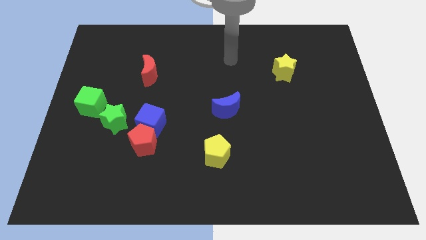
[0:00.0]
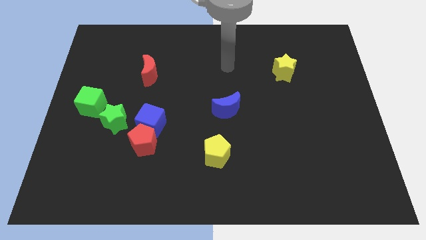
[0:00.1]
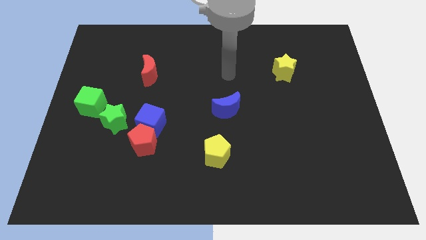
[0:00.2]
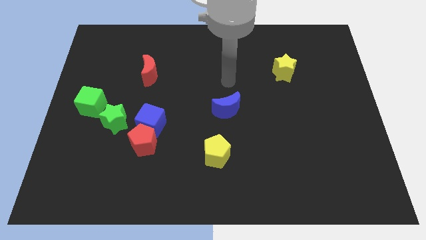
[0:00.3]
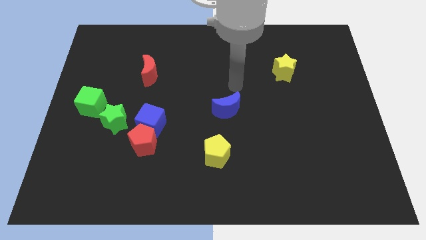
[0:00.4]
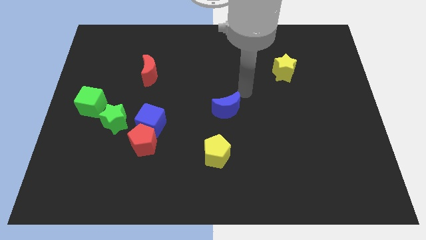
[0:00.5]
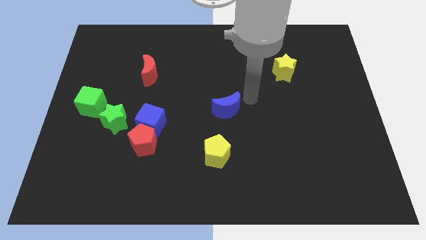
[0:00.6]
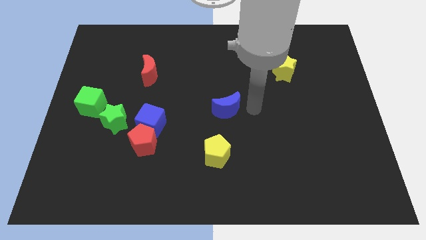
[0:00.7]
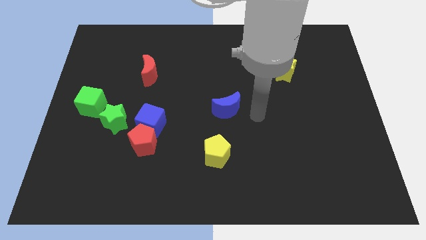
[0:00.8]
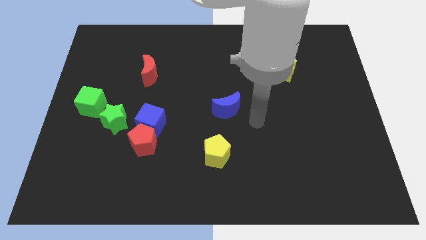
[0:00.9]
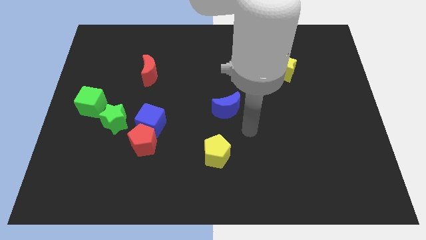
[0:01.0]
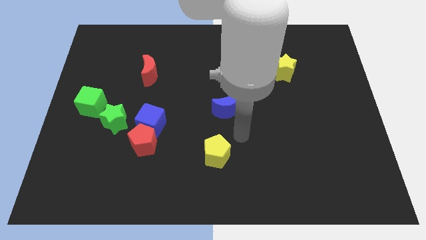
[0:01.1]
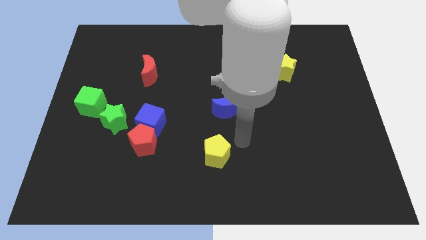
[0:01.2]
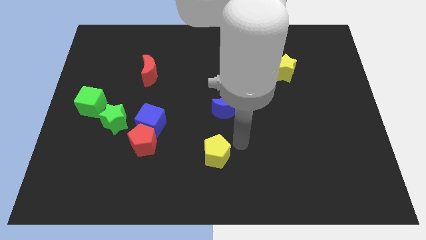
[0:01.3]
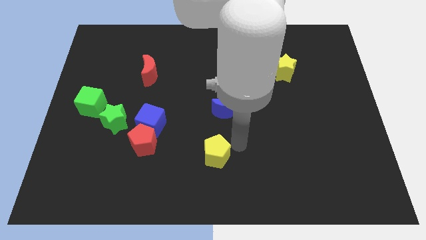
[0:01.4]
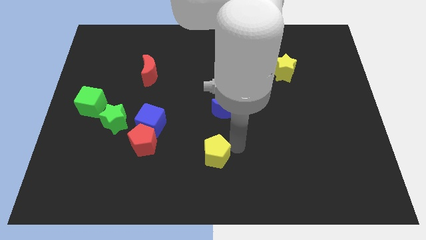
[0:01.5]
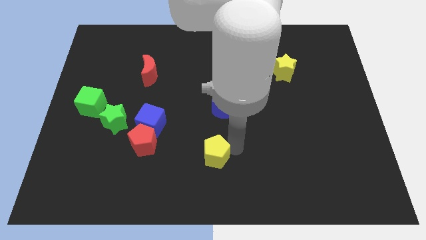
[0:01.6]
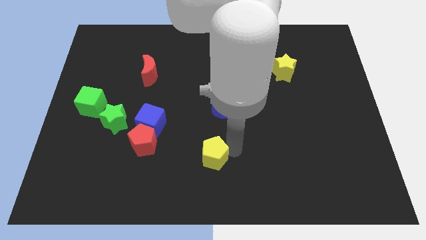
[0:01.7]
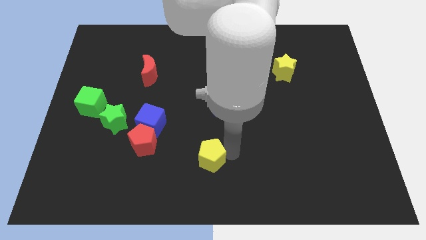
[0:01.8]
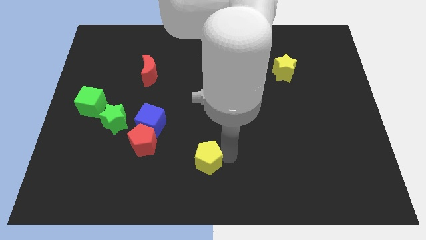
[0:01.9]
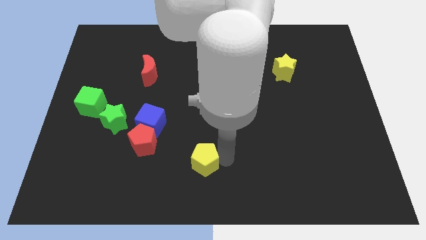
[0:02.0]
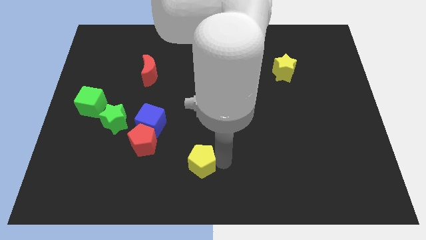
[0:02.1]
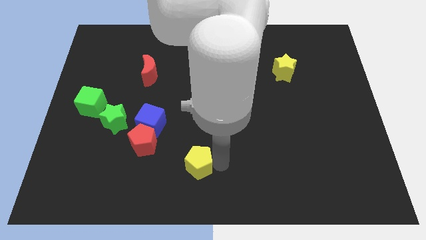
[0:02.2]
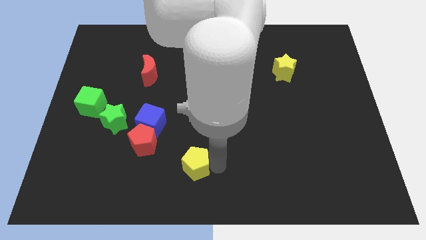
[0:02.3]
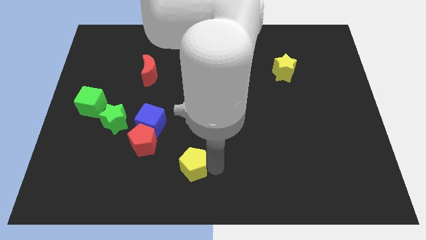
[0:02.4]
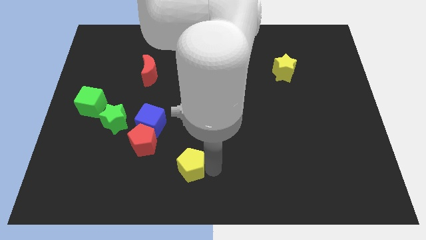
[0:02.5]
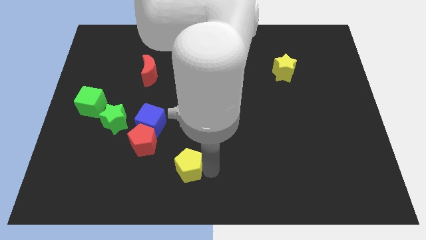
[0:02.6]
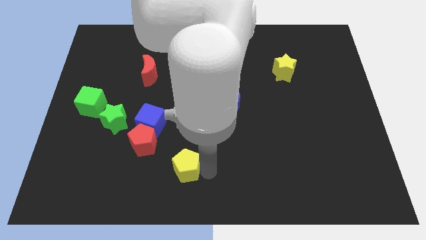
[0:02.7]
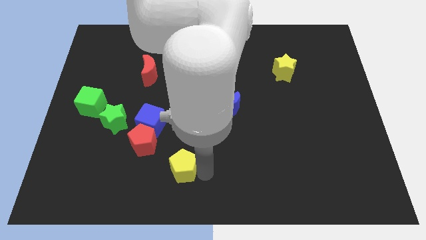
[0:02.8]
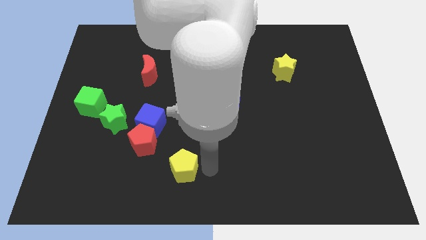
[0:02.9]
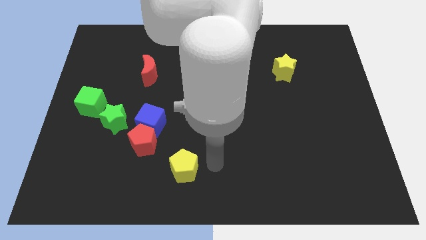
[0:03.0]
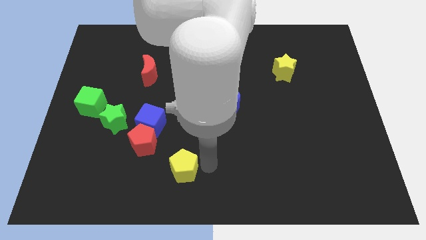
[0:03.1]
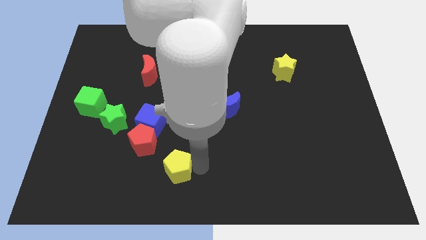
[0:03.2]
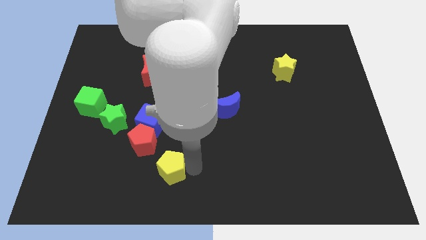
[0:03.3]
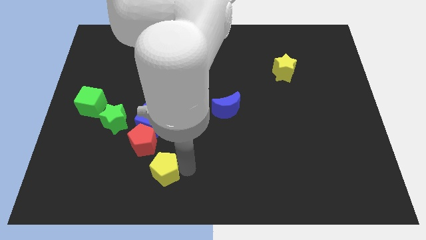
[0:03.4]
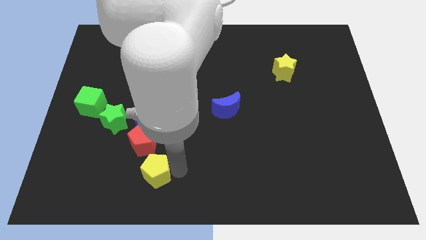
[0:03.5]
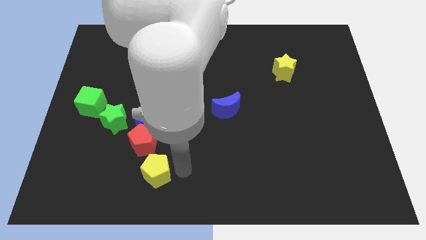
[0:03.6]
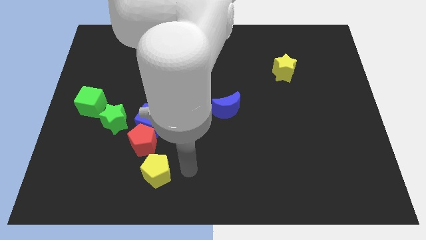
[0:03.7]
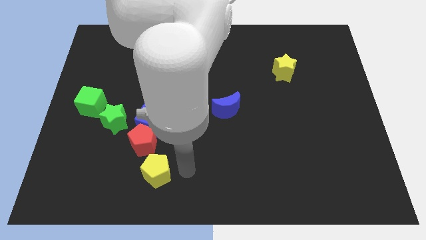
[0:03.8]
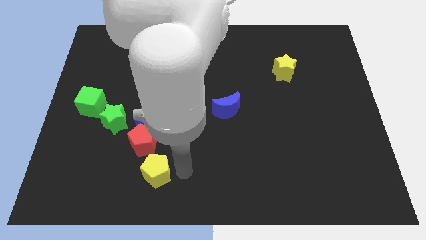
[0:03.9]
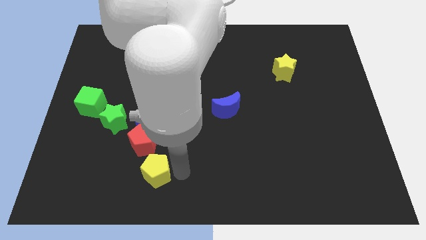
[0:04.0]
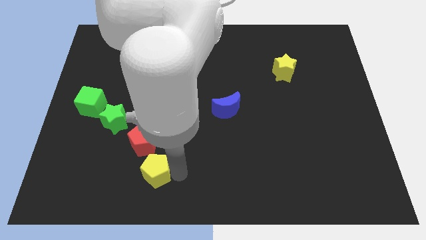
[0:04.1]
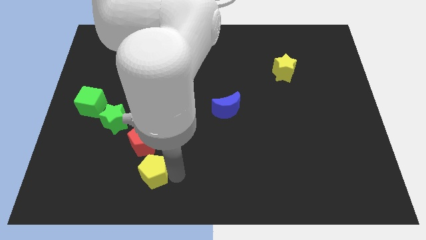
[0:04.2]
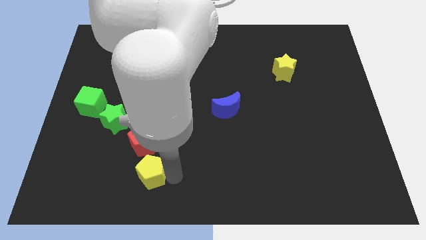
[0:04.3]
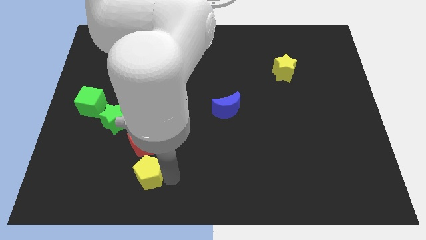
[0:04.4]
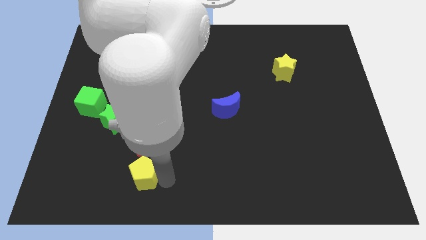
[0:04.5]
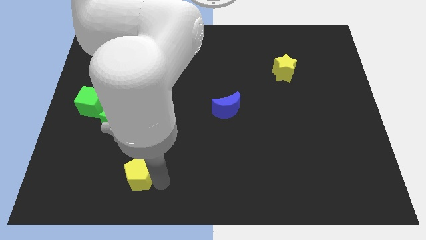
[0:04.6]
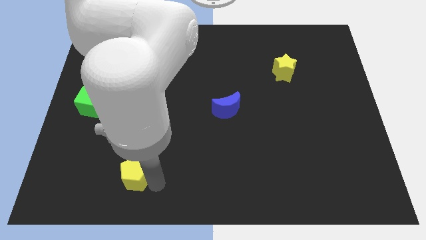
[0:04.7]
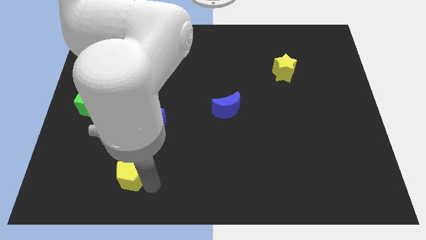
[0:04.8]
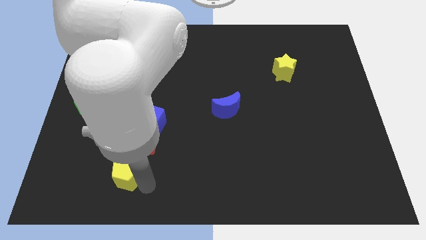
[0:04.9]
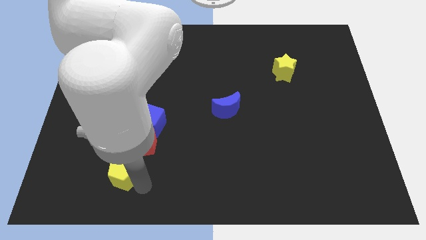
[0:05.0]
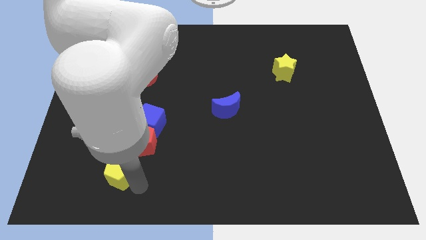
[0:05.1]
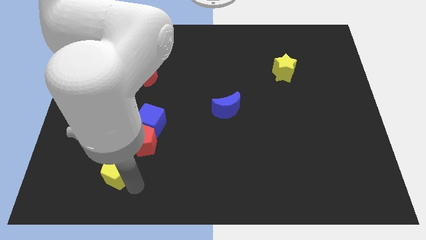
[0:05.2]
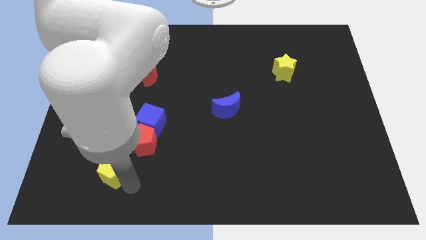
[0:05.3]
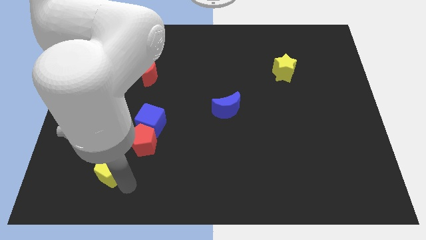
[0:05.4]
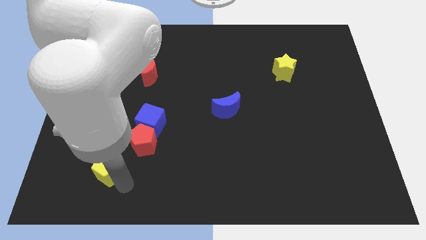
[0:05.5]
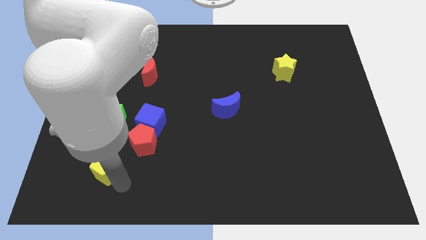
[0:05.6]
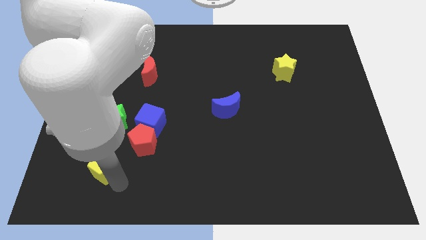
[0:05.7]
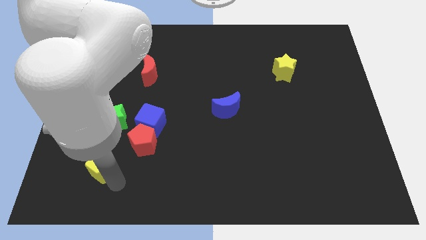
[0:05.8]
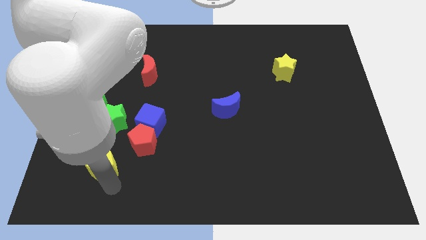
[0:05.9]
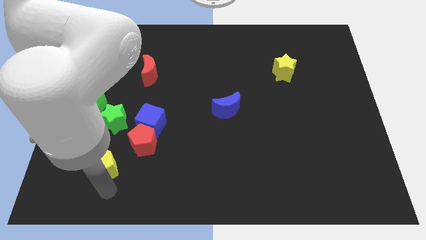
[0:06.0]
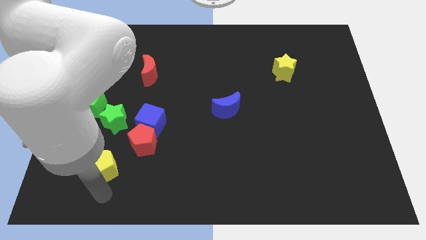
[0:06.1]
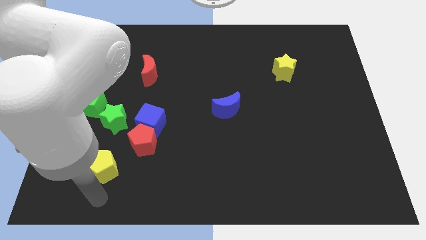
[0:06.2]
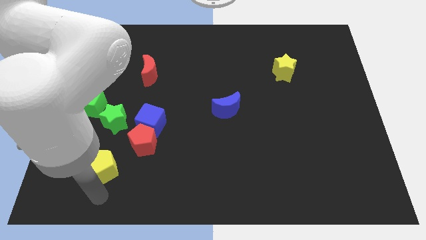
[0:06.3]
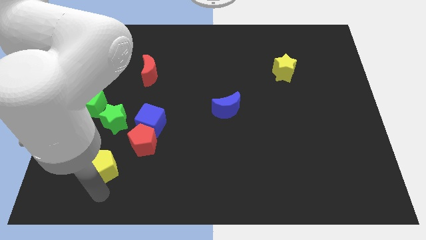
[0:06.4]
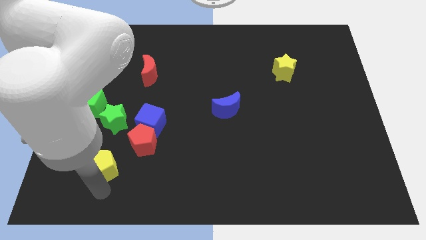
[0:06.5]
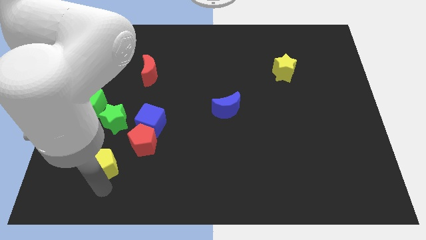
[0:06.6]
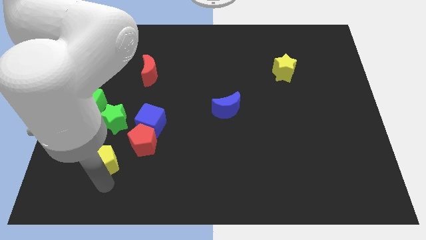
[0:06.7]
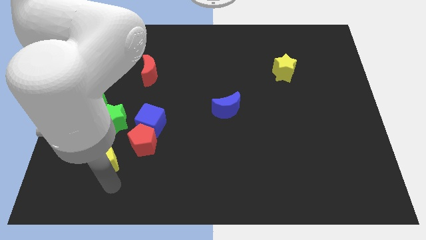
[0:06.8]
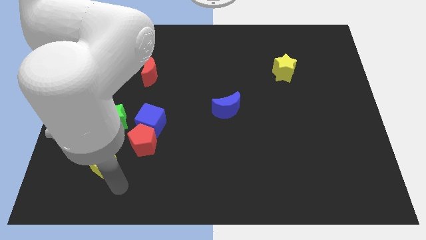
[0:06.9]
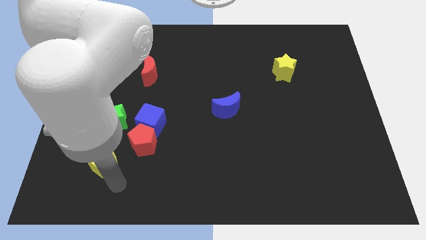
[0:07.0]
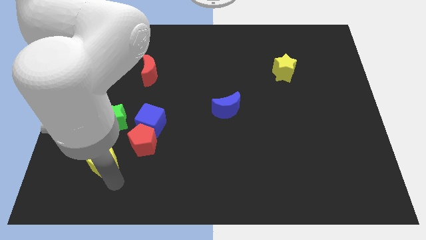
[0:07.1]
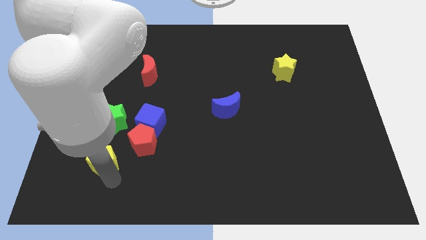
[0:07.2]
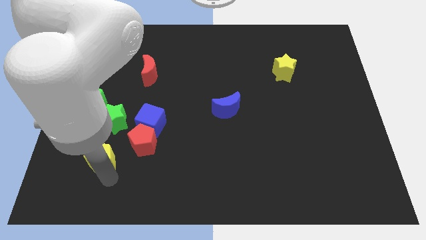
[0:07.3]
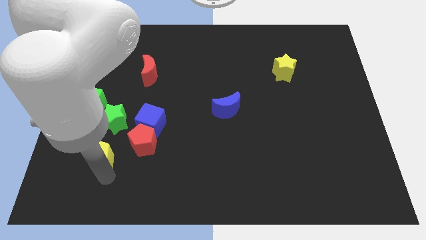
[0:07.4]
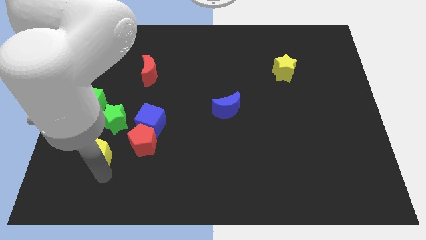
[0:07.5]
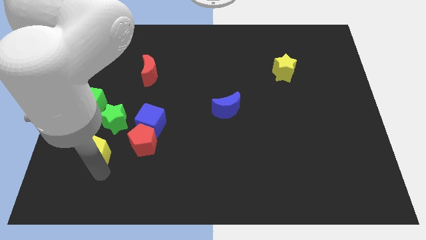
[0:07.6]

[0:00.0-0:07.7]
slide the yellow pentagon to the bottom left side of the green star
